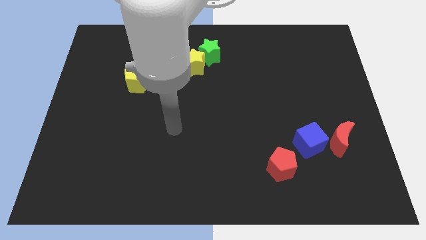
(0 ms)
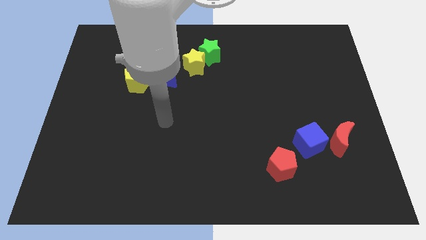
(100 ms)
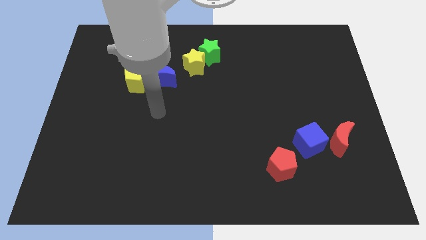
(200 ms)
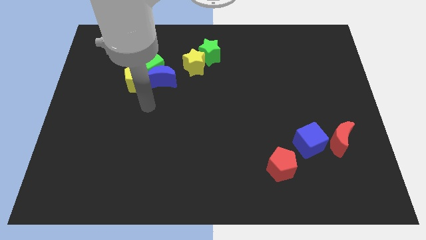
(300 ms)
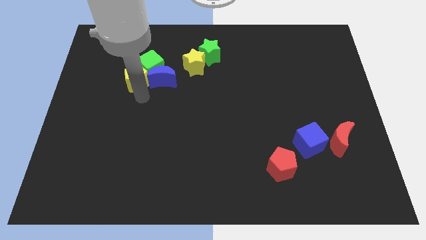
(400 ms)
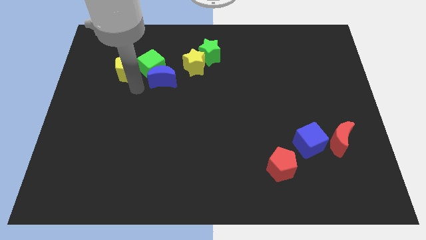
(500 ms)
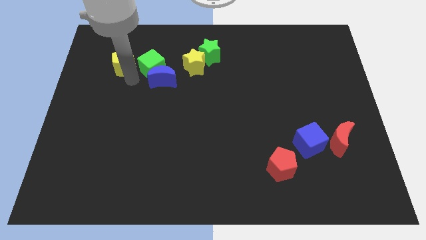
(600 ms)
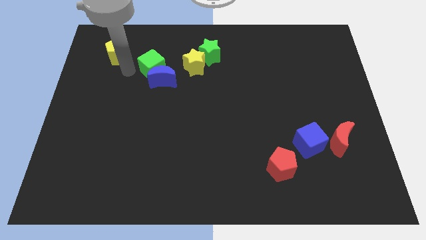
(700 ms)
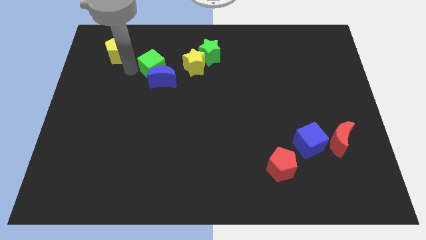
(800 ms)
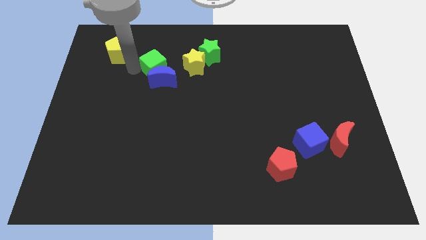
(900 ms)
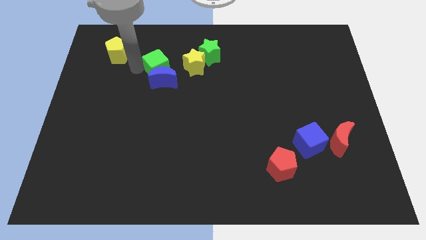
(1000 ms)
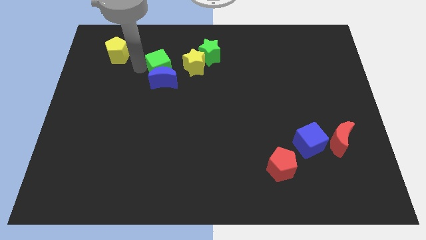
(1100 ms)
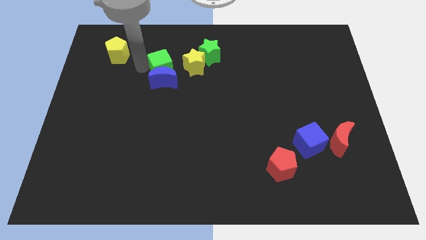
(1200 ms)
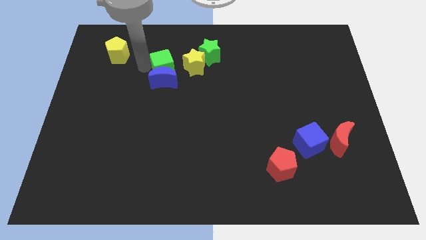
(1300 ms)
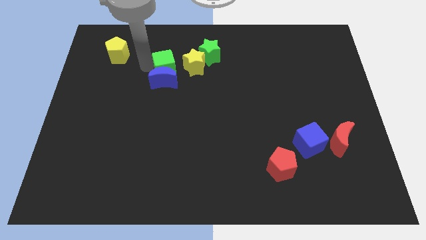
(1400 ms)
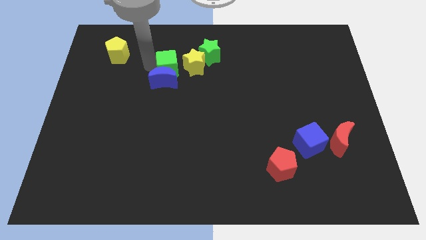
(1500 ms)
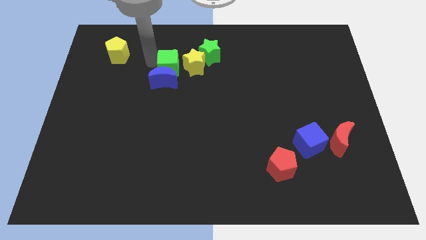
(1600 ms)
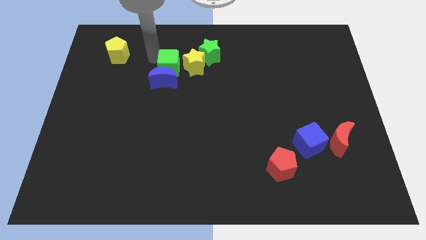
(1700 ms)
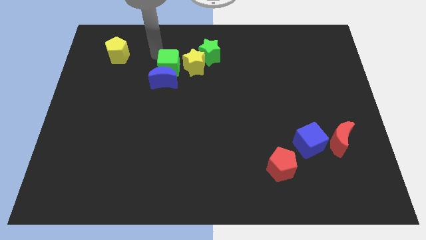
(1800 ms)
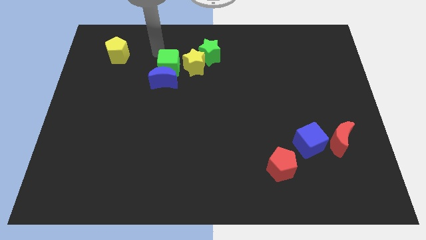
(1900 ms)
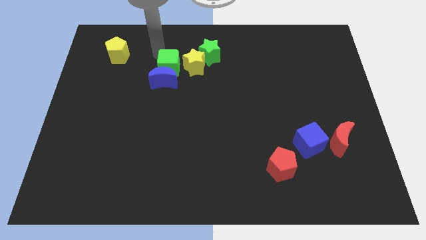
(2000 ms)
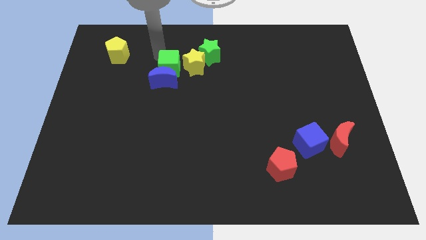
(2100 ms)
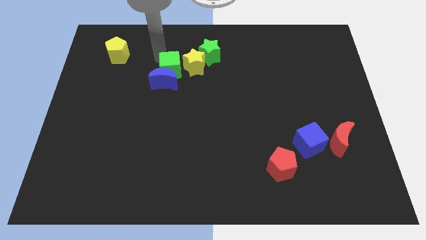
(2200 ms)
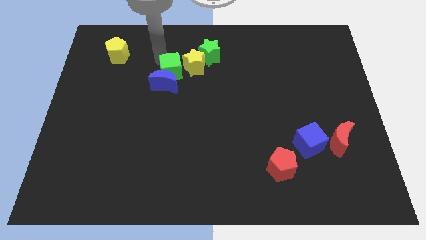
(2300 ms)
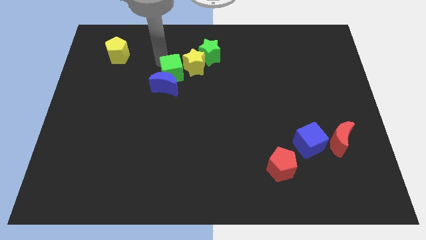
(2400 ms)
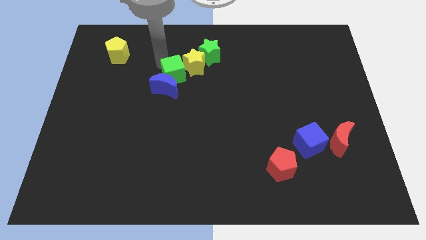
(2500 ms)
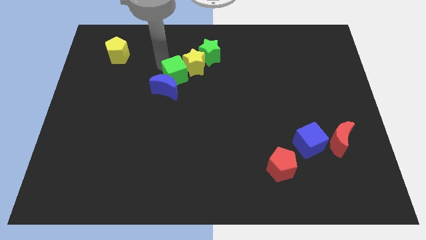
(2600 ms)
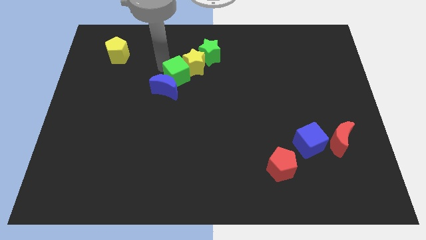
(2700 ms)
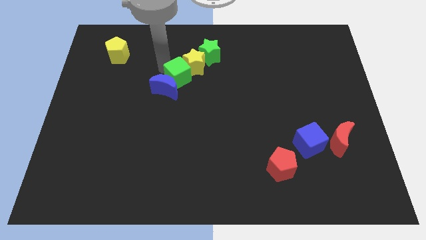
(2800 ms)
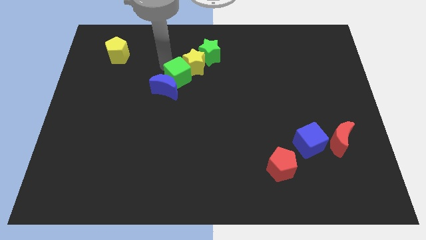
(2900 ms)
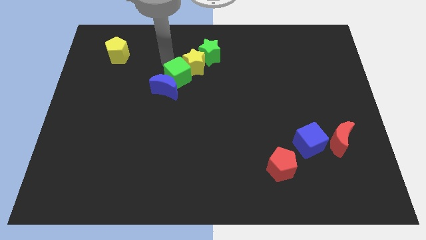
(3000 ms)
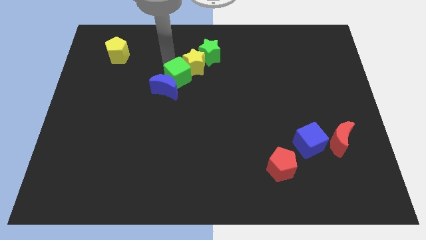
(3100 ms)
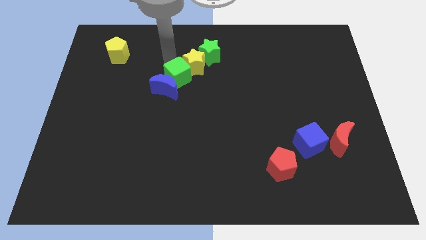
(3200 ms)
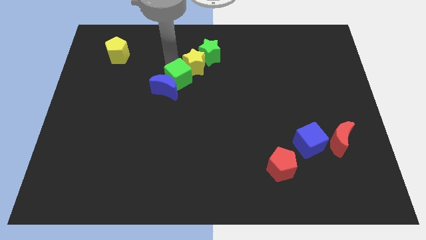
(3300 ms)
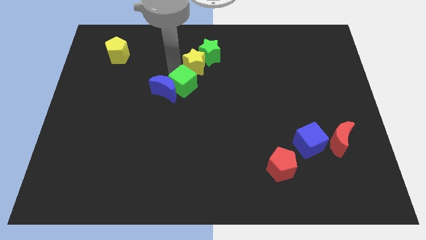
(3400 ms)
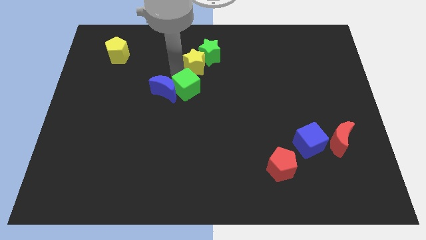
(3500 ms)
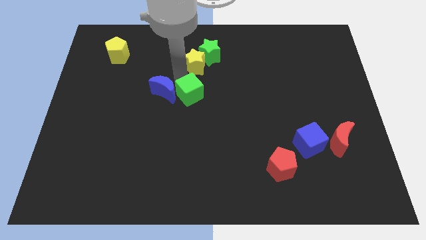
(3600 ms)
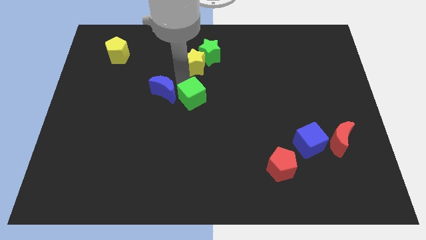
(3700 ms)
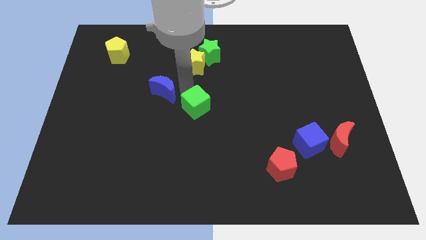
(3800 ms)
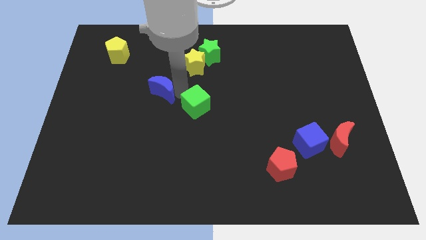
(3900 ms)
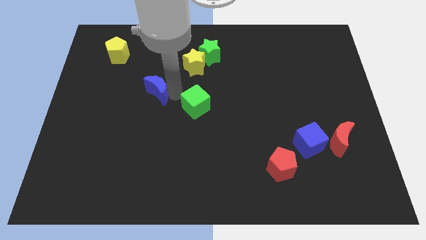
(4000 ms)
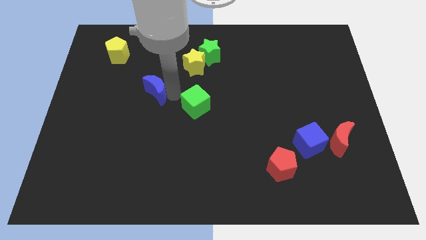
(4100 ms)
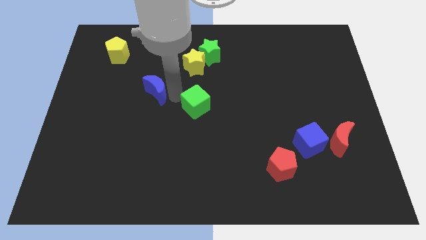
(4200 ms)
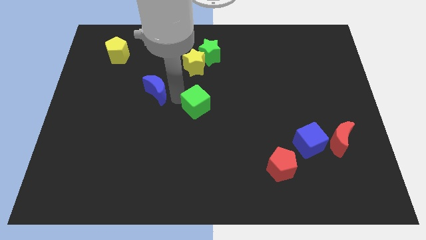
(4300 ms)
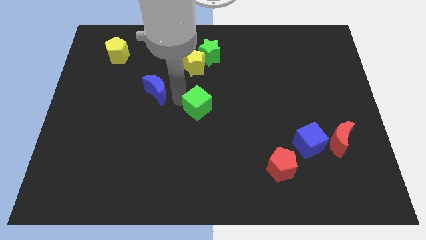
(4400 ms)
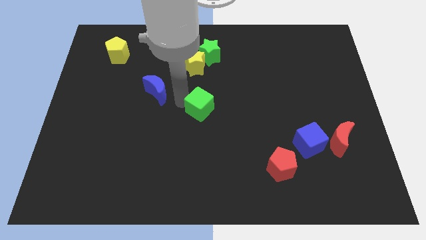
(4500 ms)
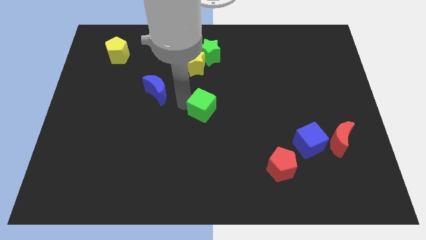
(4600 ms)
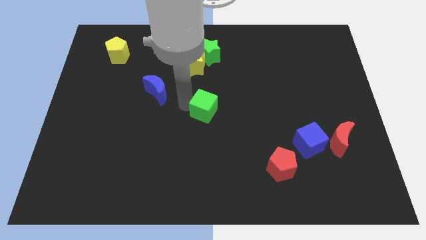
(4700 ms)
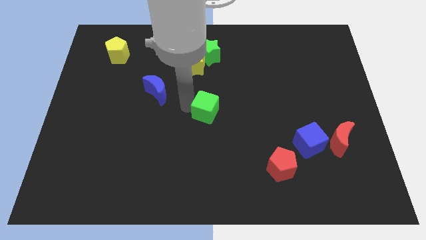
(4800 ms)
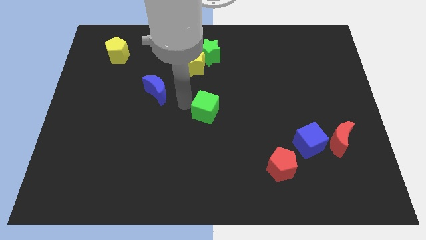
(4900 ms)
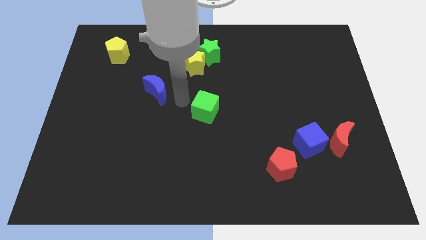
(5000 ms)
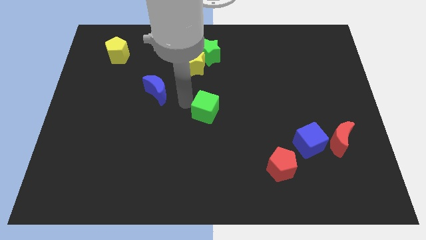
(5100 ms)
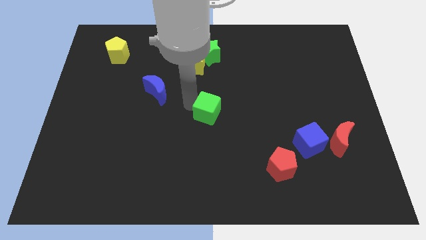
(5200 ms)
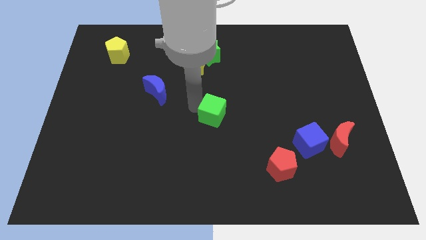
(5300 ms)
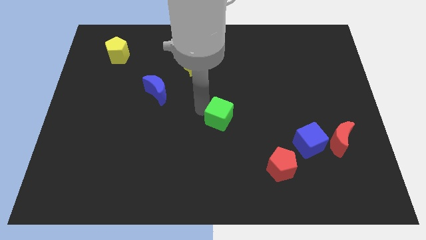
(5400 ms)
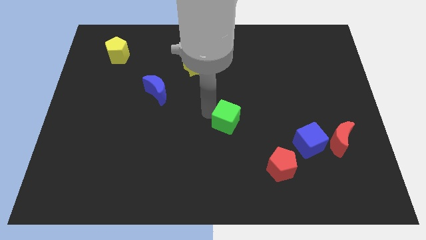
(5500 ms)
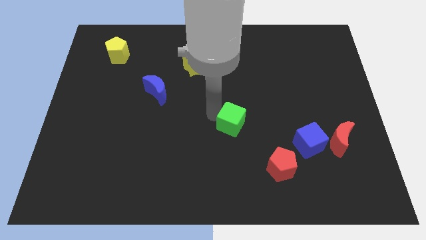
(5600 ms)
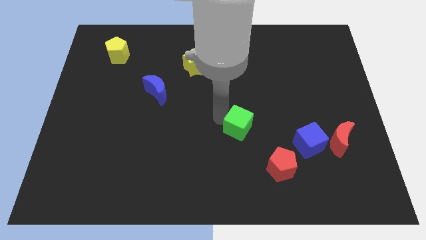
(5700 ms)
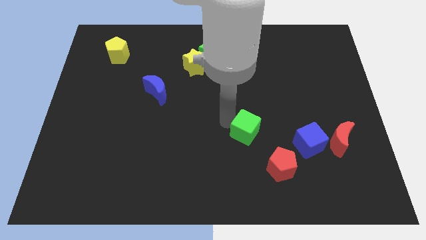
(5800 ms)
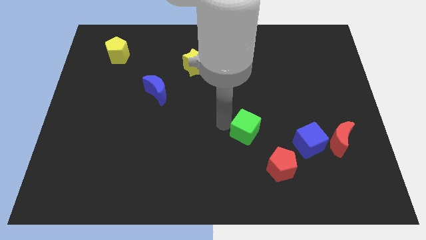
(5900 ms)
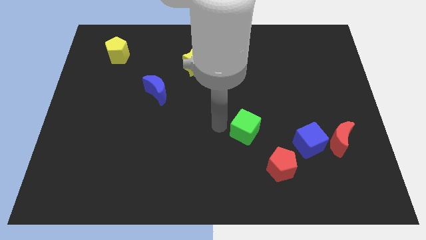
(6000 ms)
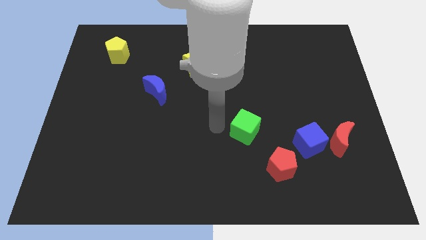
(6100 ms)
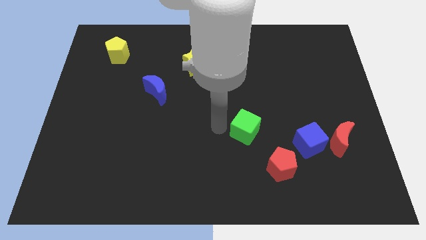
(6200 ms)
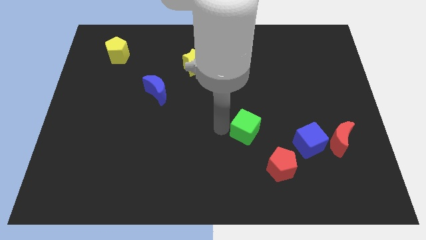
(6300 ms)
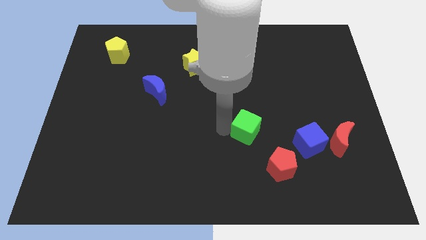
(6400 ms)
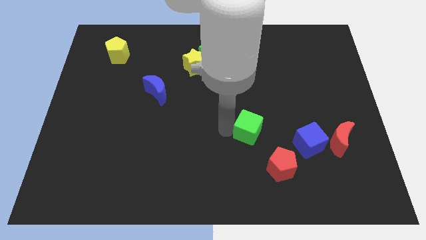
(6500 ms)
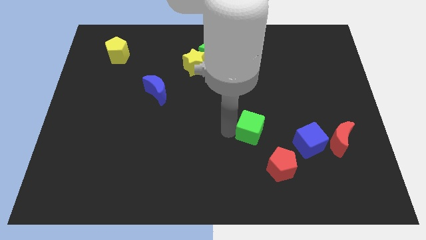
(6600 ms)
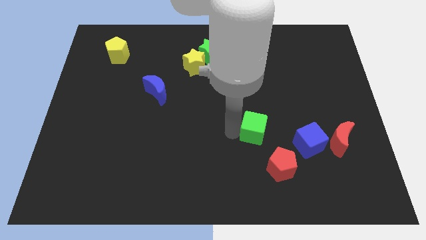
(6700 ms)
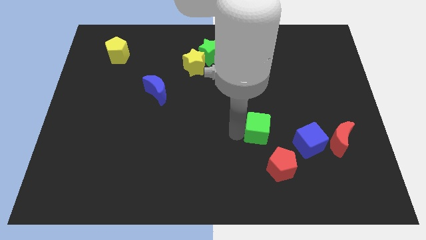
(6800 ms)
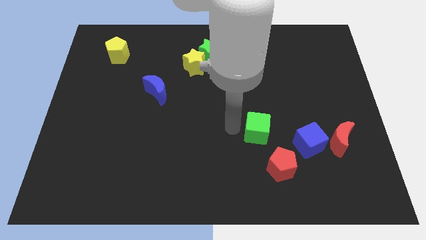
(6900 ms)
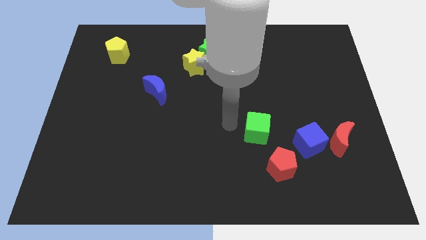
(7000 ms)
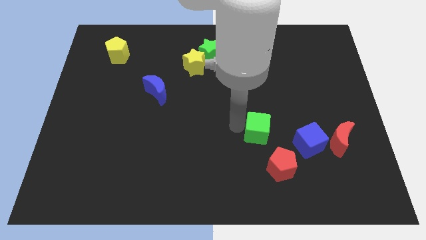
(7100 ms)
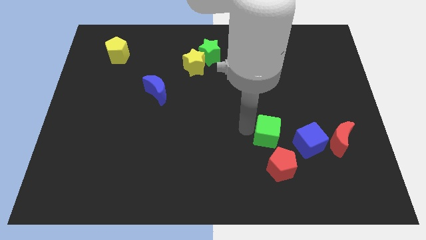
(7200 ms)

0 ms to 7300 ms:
put the green cube to the left side of the red moon
